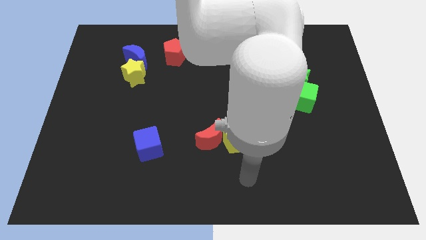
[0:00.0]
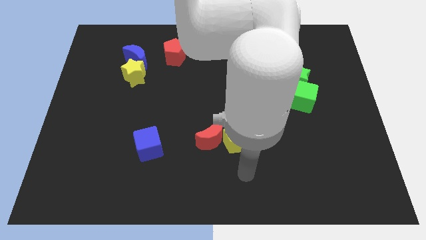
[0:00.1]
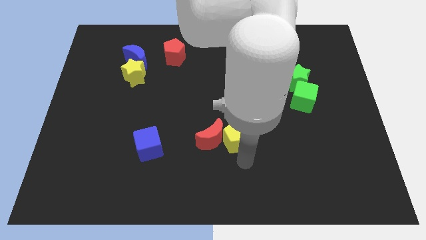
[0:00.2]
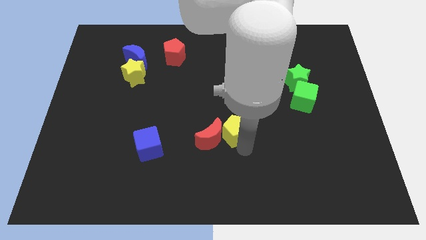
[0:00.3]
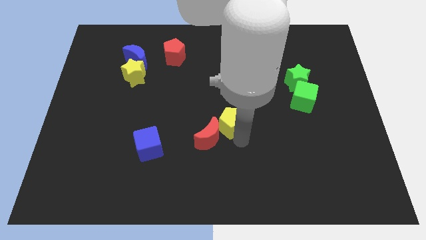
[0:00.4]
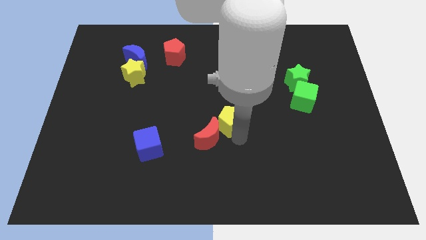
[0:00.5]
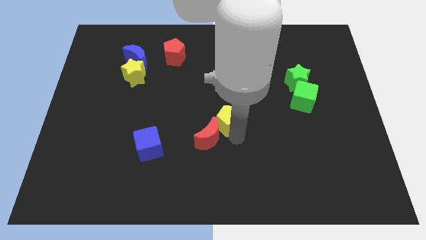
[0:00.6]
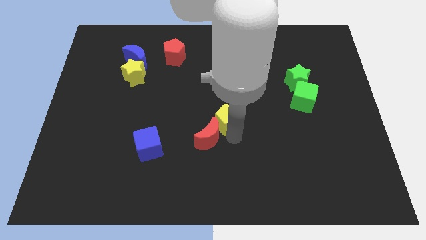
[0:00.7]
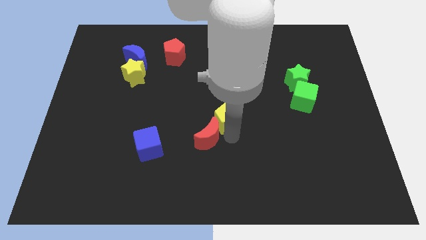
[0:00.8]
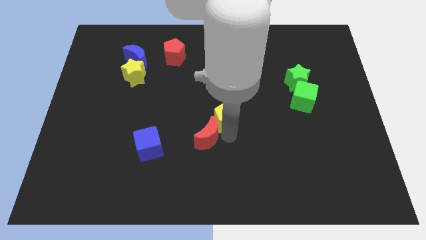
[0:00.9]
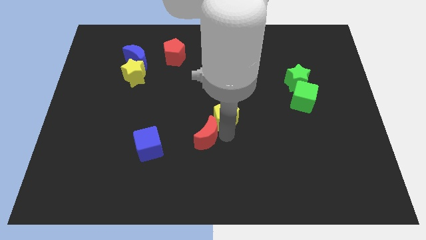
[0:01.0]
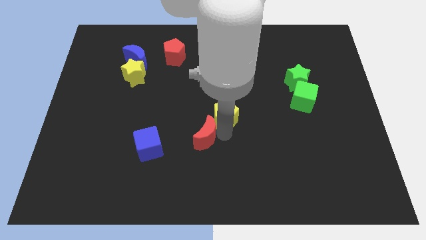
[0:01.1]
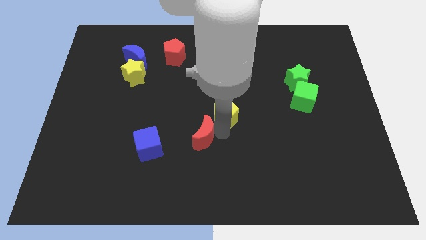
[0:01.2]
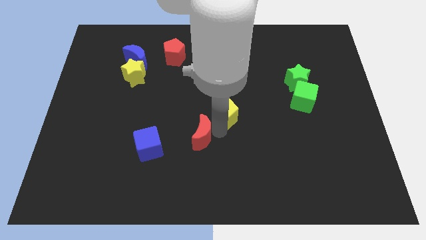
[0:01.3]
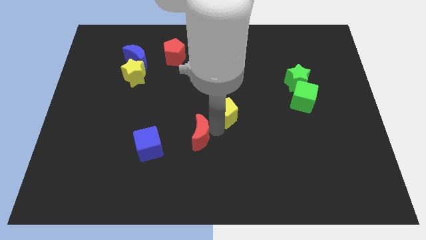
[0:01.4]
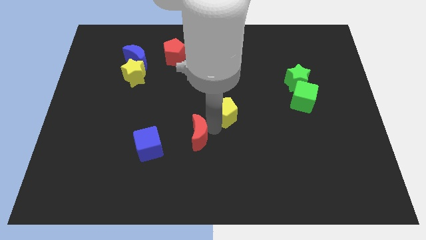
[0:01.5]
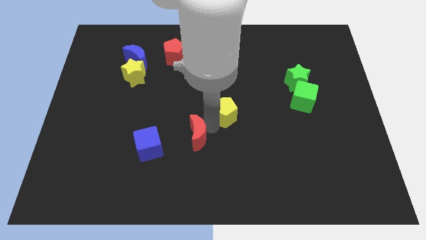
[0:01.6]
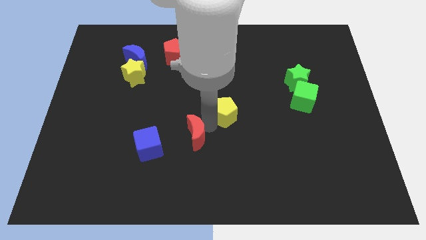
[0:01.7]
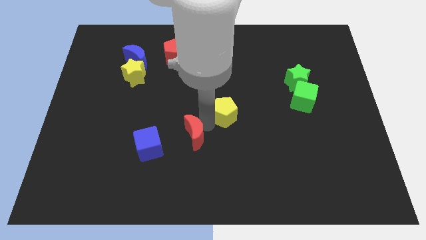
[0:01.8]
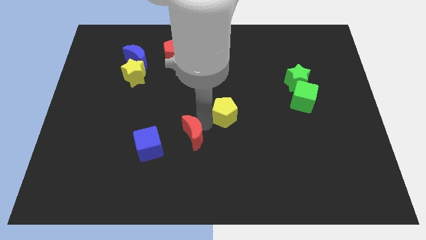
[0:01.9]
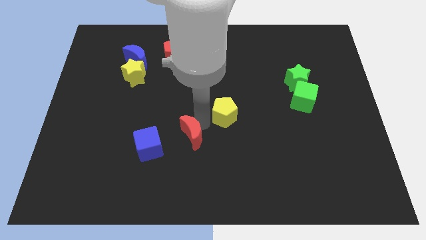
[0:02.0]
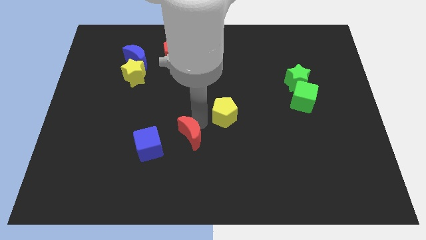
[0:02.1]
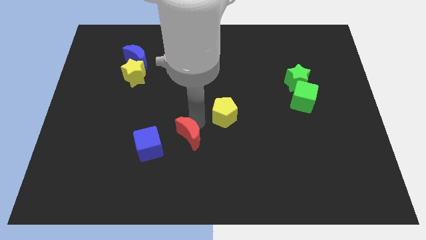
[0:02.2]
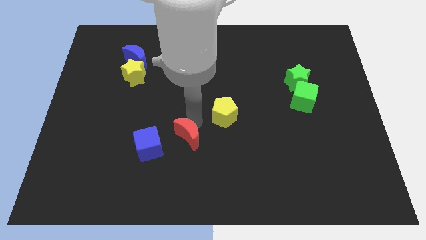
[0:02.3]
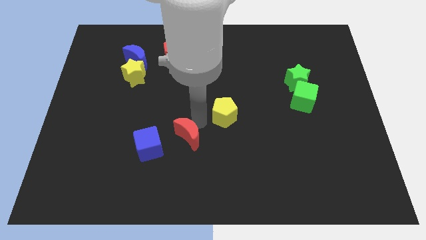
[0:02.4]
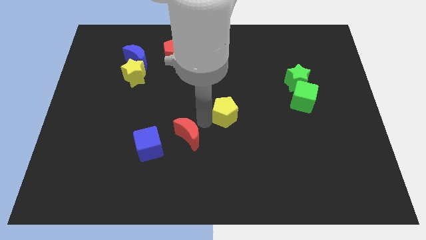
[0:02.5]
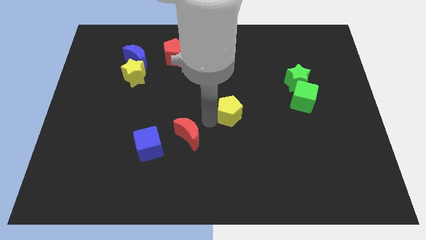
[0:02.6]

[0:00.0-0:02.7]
move the red moon away from the yellow pentagon

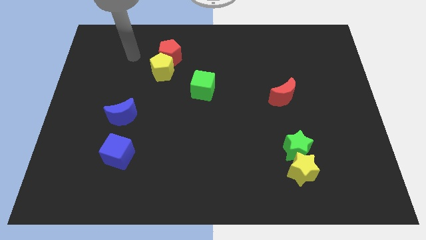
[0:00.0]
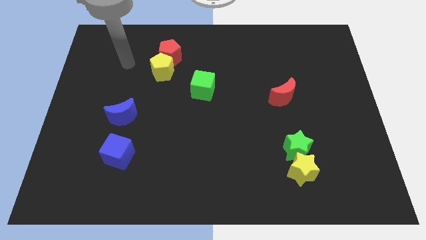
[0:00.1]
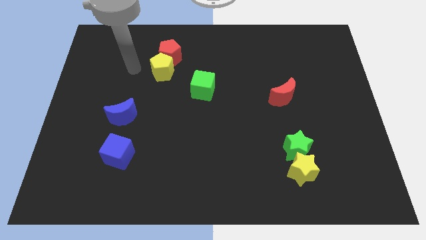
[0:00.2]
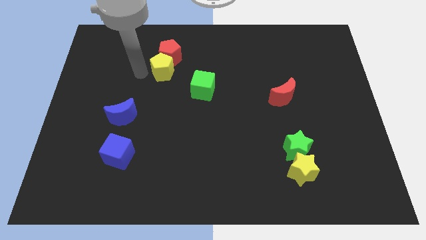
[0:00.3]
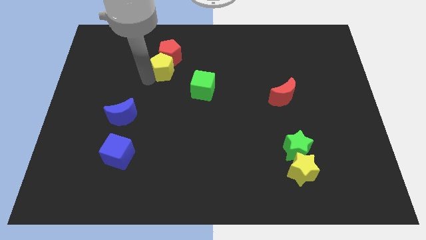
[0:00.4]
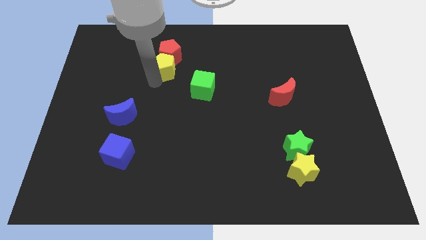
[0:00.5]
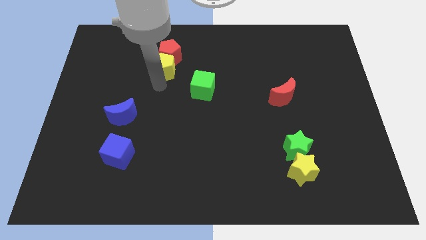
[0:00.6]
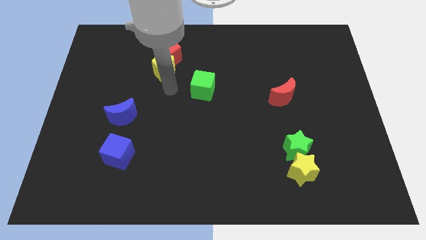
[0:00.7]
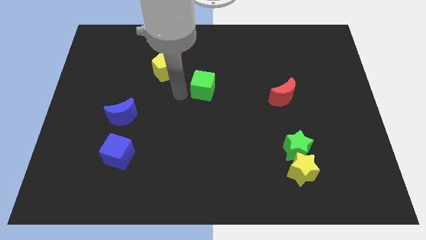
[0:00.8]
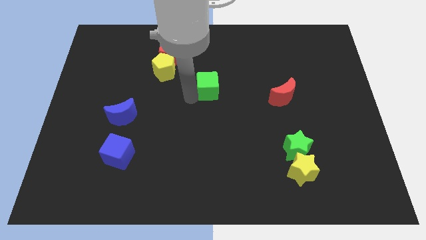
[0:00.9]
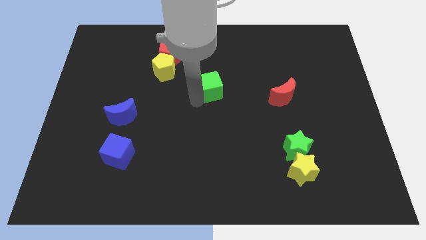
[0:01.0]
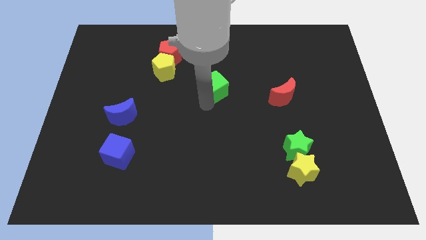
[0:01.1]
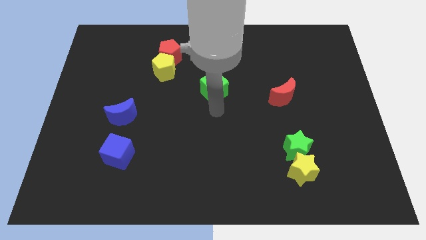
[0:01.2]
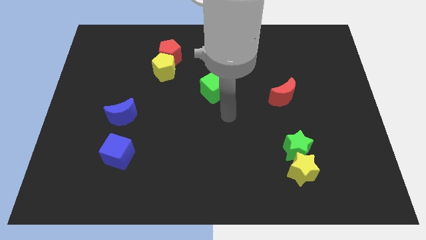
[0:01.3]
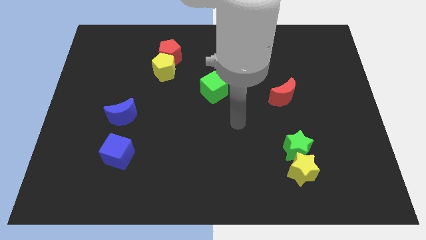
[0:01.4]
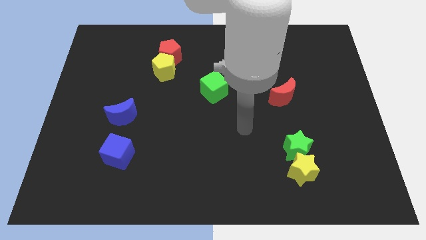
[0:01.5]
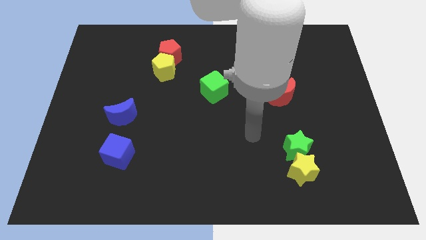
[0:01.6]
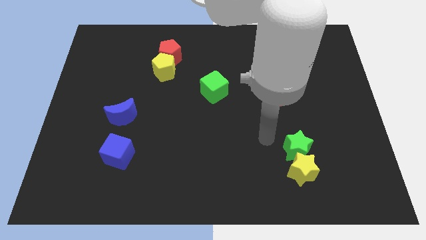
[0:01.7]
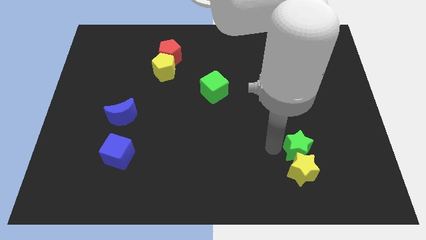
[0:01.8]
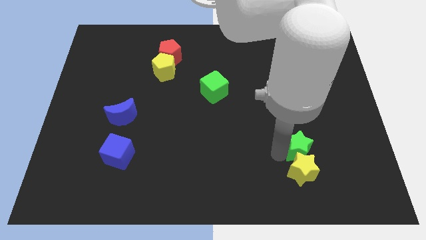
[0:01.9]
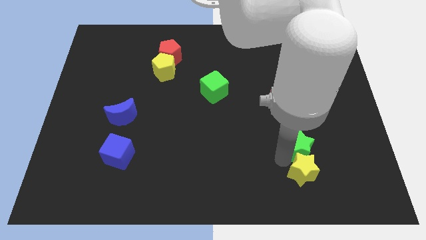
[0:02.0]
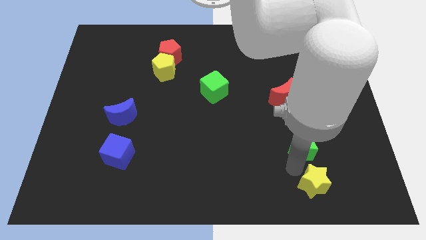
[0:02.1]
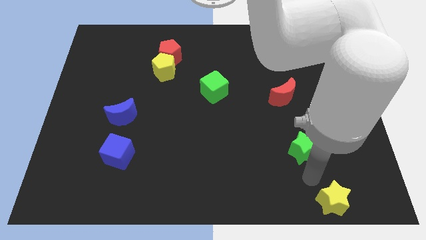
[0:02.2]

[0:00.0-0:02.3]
separate the green star from the yellow star

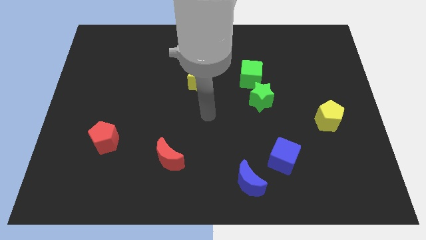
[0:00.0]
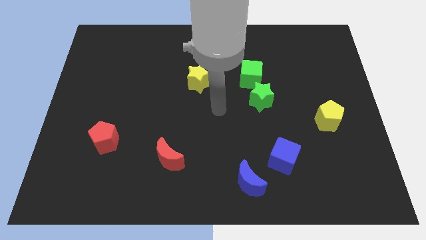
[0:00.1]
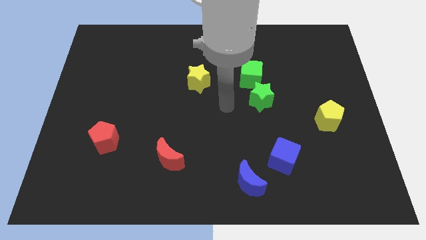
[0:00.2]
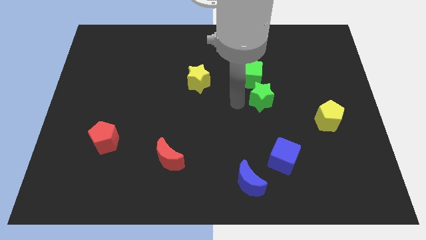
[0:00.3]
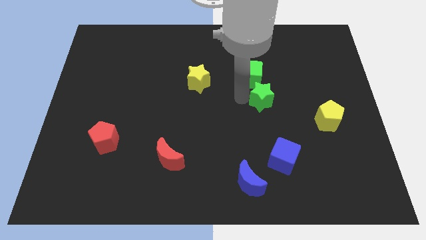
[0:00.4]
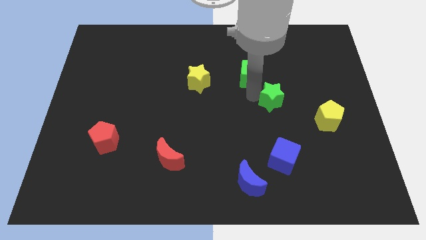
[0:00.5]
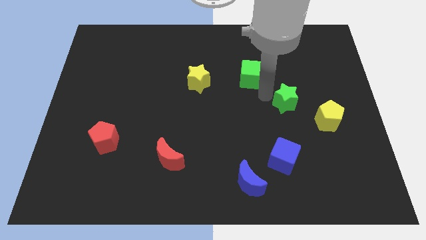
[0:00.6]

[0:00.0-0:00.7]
move the green cube away from the green star

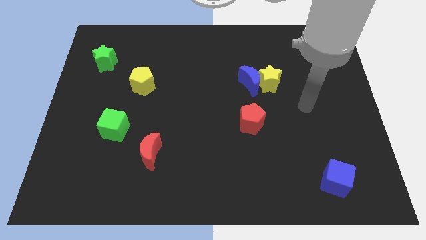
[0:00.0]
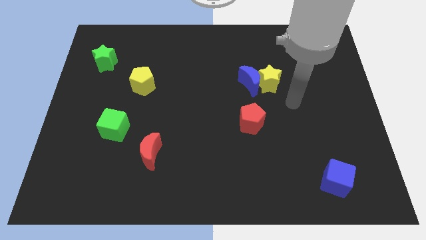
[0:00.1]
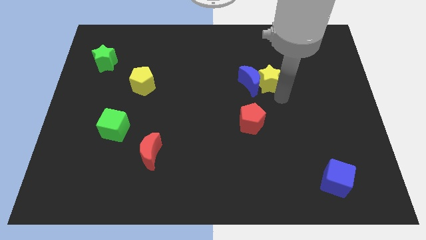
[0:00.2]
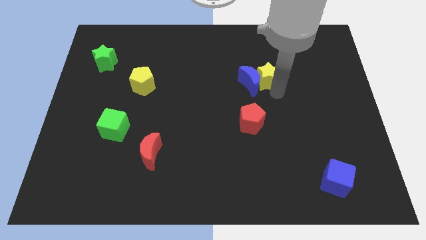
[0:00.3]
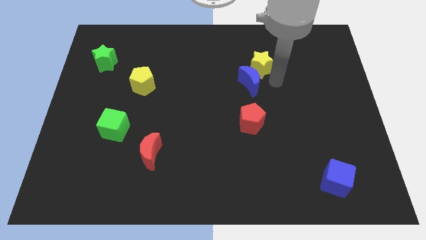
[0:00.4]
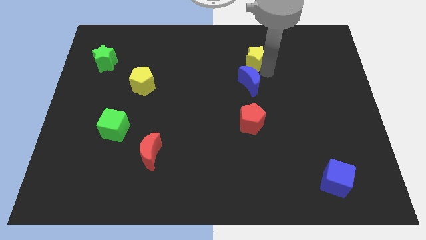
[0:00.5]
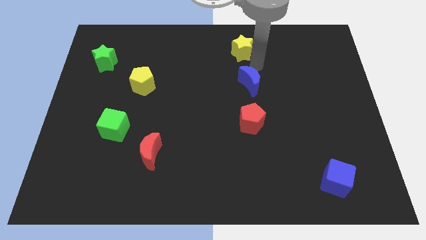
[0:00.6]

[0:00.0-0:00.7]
move the blue moon away from the yellow star

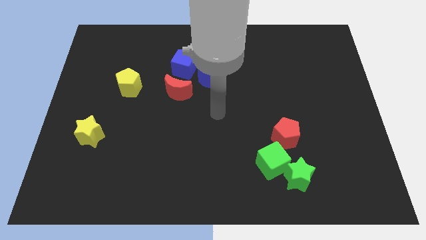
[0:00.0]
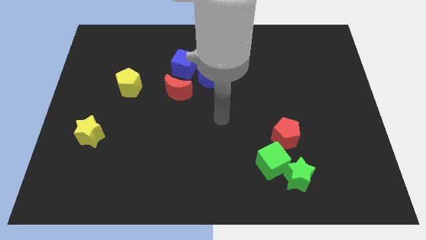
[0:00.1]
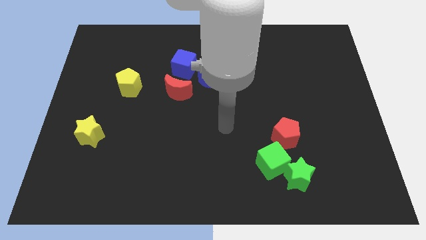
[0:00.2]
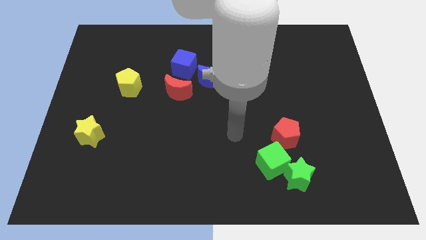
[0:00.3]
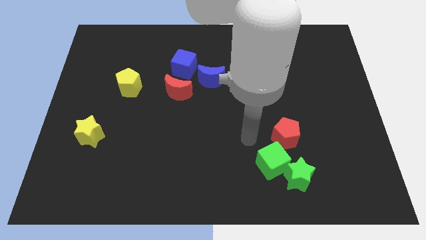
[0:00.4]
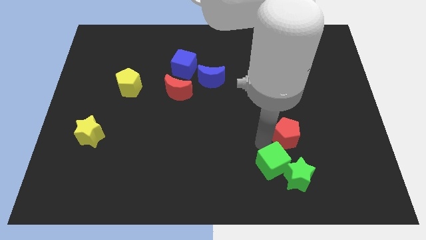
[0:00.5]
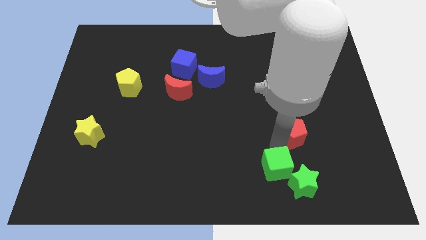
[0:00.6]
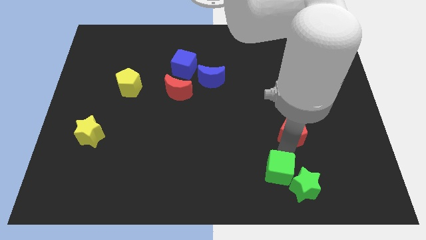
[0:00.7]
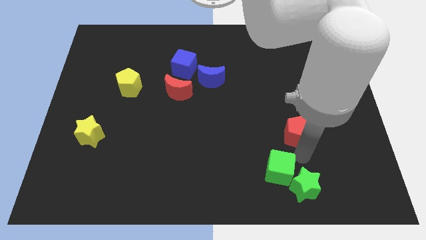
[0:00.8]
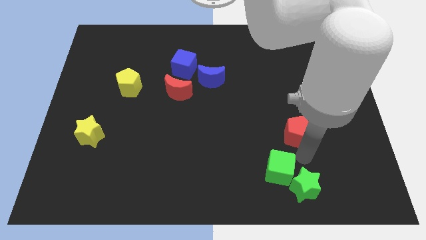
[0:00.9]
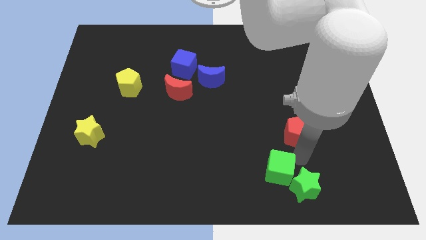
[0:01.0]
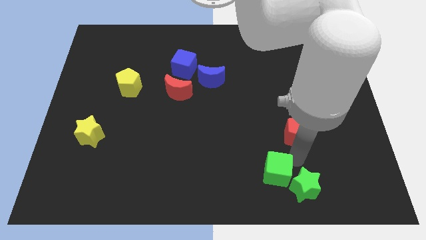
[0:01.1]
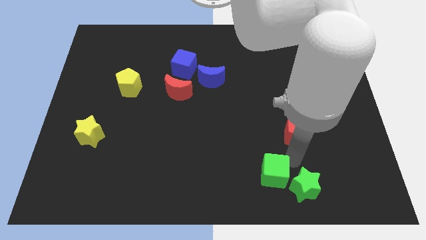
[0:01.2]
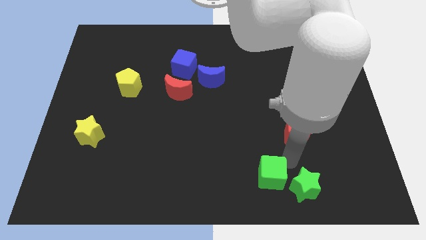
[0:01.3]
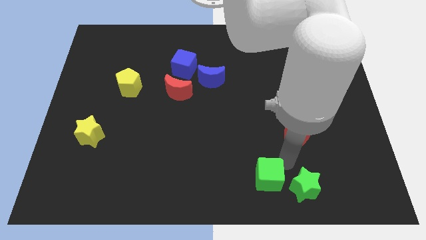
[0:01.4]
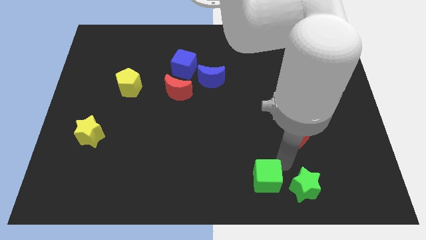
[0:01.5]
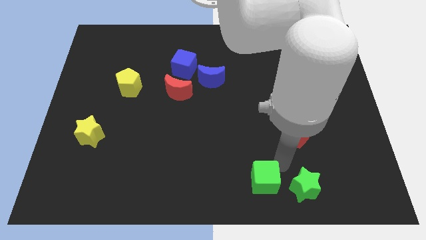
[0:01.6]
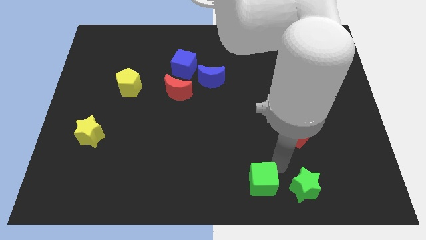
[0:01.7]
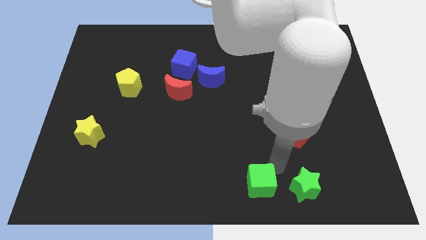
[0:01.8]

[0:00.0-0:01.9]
separate the green cube from the green star and red pentagon

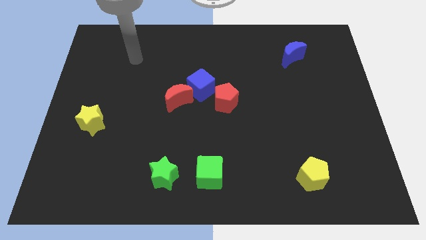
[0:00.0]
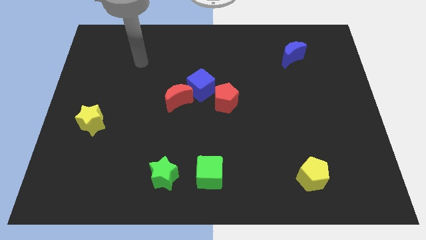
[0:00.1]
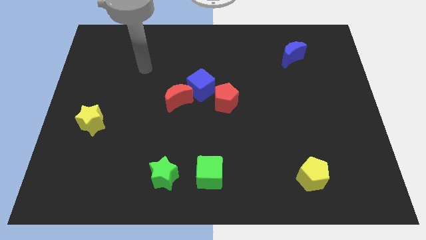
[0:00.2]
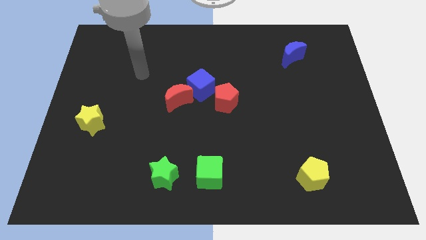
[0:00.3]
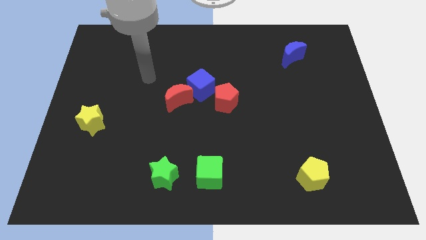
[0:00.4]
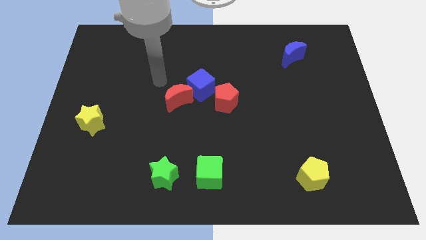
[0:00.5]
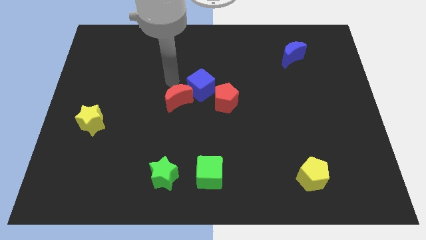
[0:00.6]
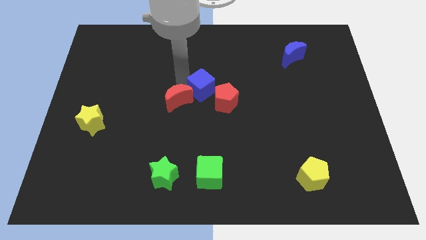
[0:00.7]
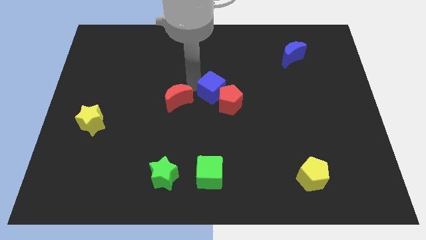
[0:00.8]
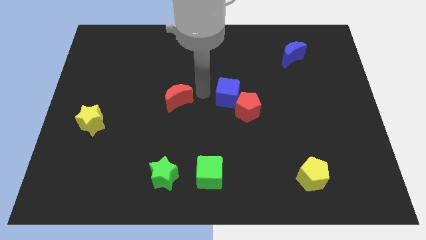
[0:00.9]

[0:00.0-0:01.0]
move the red moon away from the blue cube
